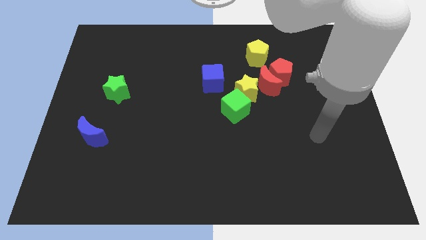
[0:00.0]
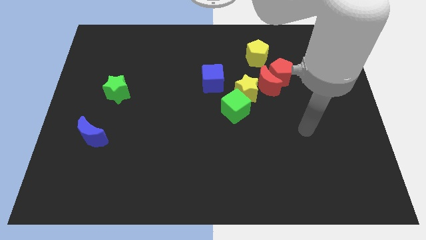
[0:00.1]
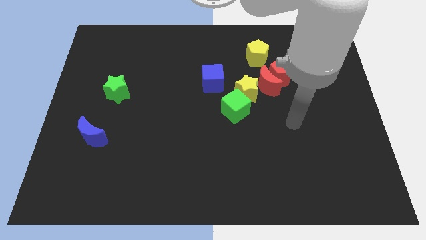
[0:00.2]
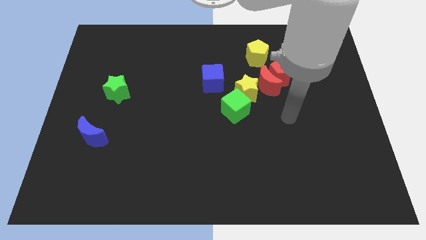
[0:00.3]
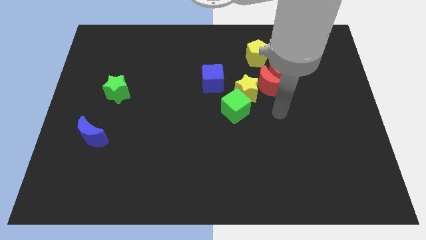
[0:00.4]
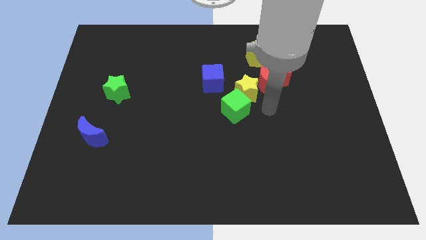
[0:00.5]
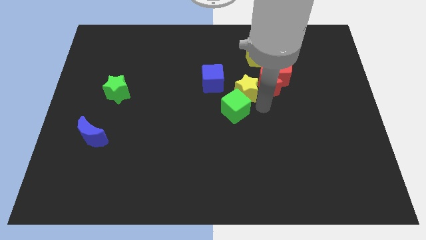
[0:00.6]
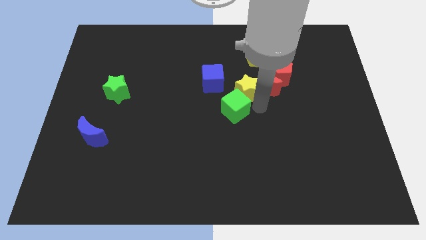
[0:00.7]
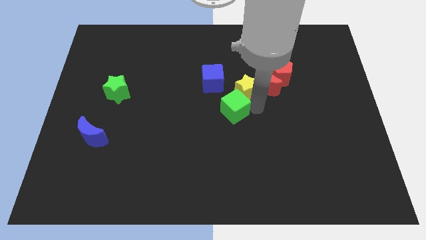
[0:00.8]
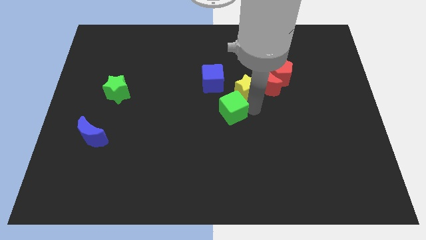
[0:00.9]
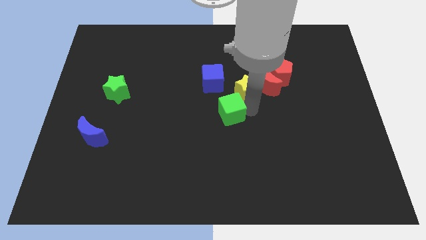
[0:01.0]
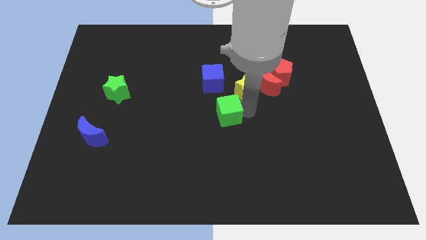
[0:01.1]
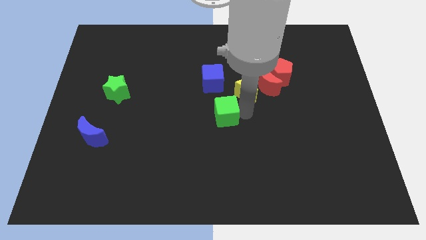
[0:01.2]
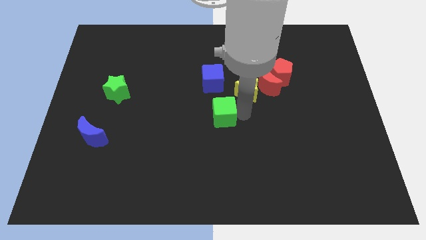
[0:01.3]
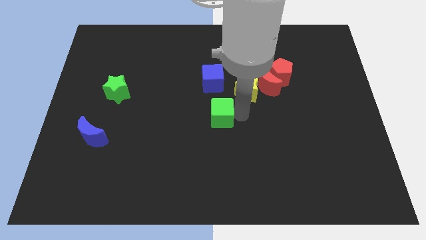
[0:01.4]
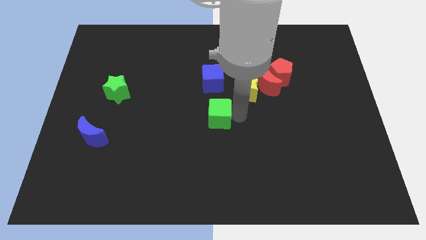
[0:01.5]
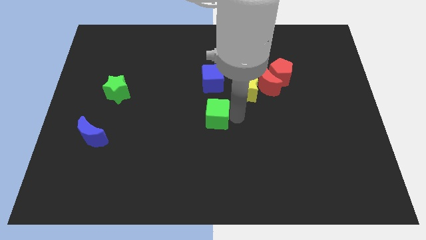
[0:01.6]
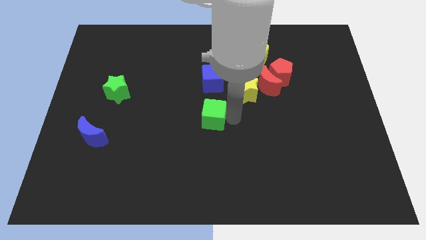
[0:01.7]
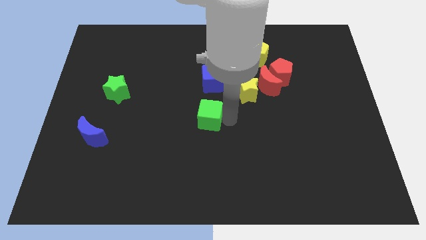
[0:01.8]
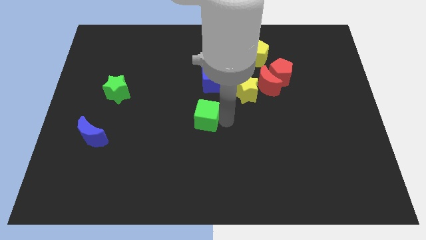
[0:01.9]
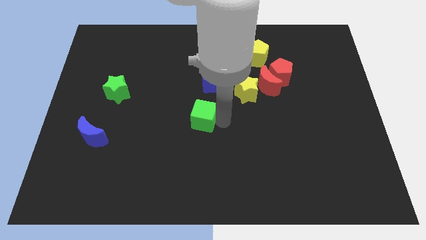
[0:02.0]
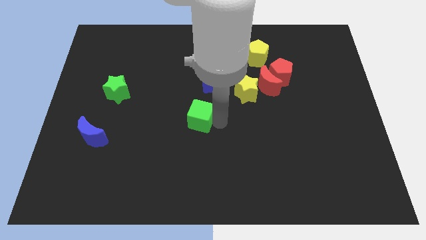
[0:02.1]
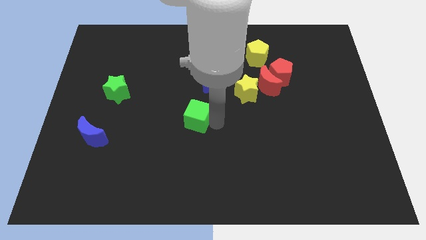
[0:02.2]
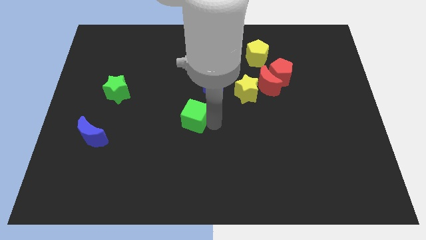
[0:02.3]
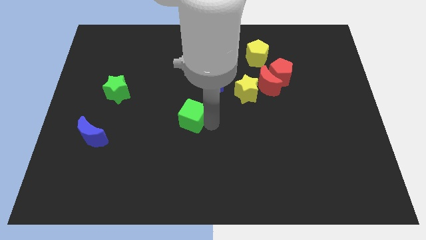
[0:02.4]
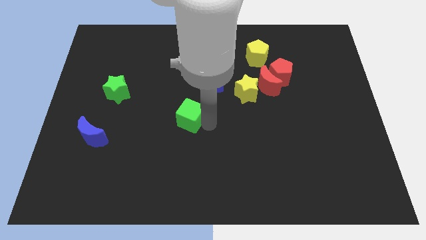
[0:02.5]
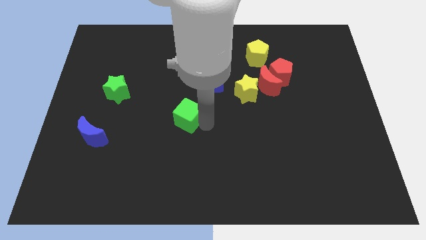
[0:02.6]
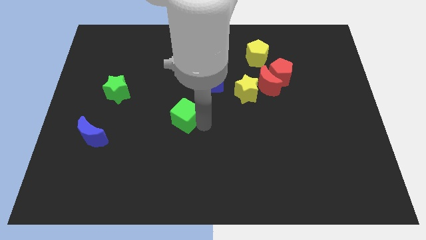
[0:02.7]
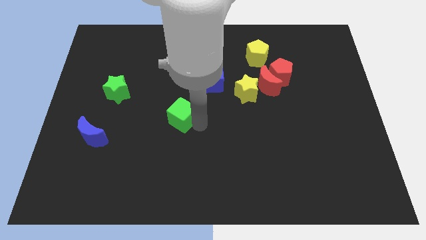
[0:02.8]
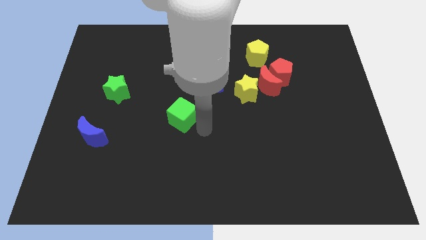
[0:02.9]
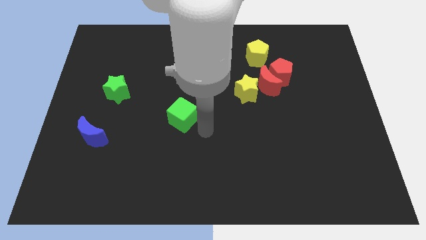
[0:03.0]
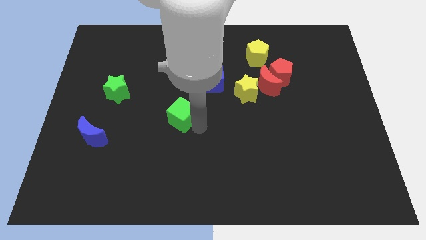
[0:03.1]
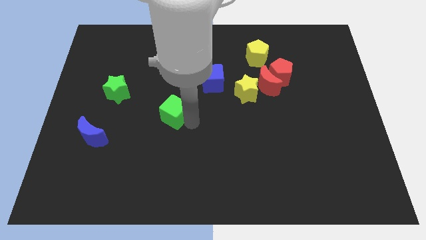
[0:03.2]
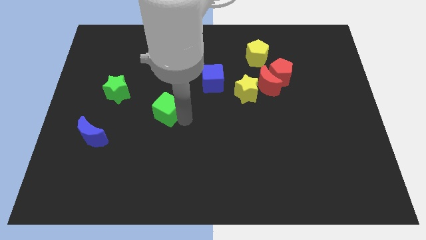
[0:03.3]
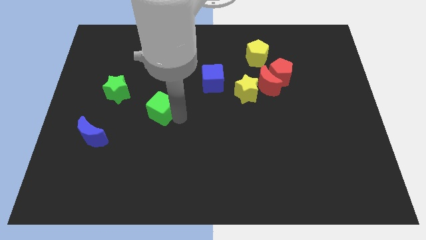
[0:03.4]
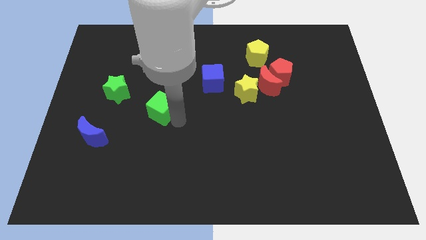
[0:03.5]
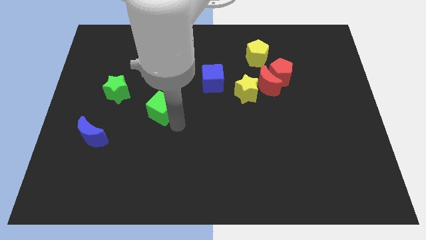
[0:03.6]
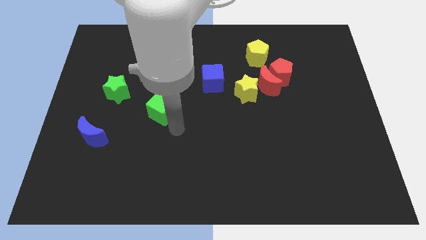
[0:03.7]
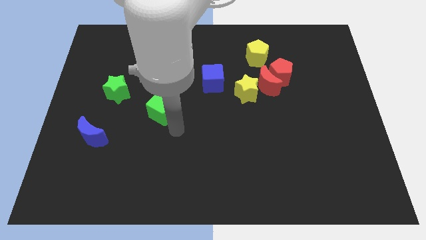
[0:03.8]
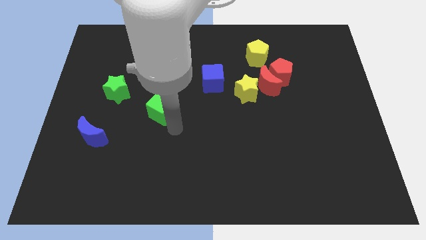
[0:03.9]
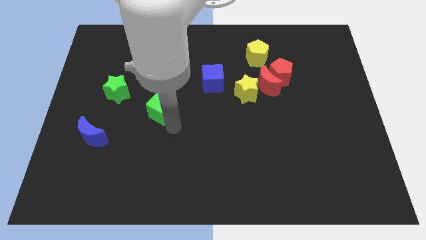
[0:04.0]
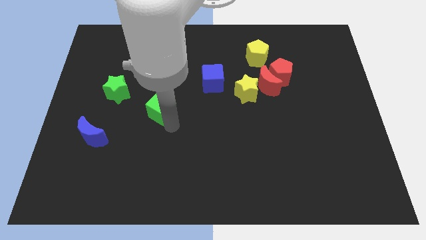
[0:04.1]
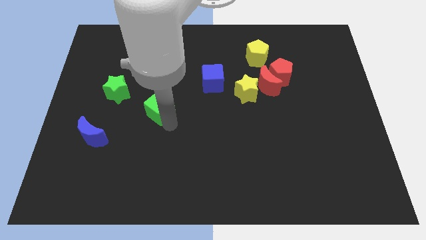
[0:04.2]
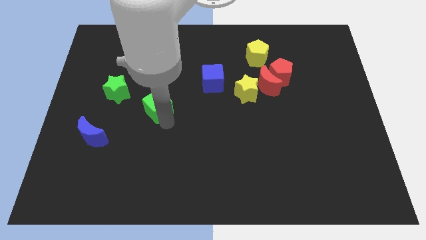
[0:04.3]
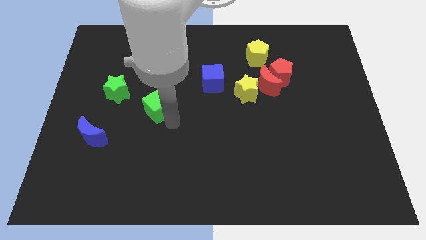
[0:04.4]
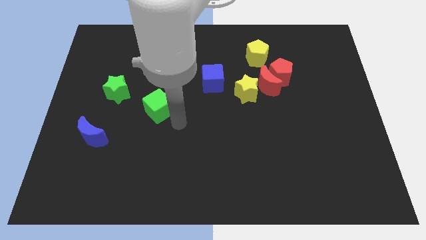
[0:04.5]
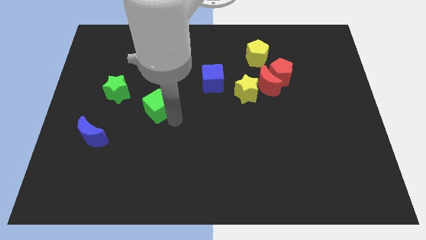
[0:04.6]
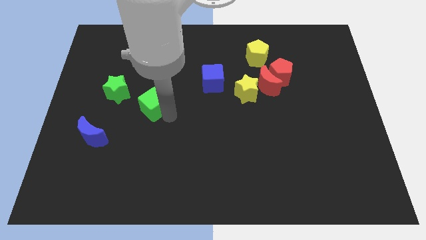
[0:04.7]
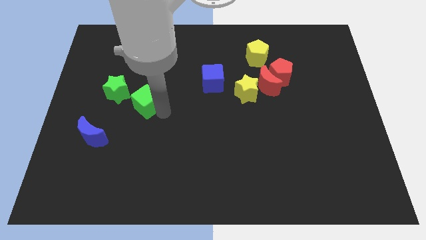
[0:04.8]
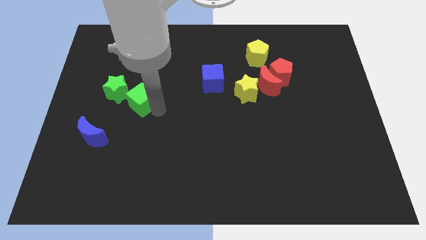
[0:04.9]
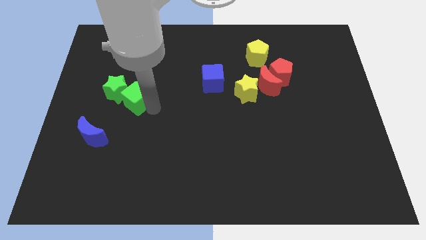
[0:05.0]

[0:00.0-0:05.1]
push the green cube close to the green star

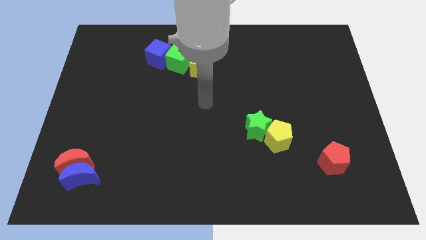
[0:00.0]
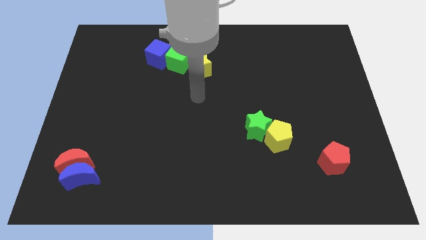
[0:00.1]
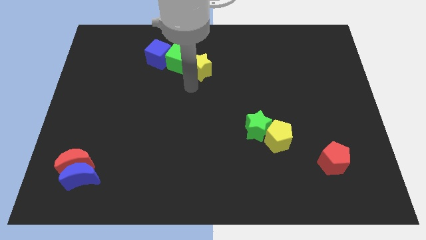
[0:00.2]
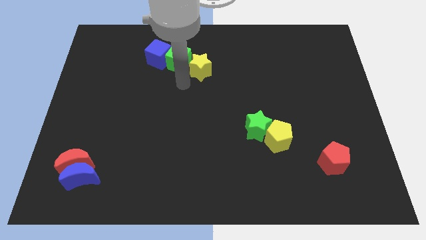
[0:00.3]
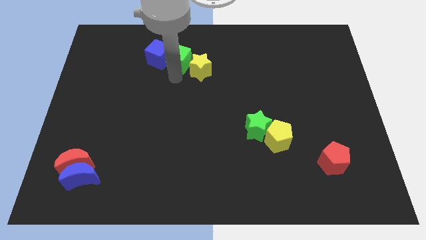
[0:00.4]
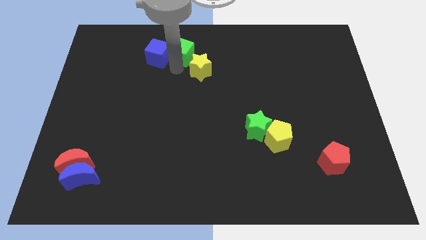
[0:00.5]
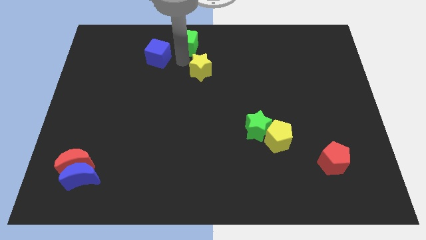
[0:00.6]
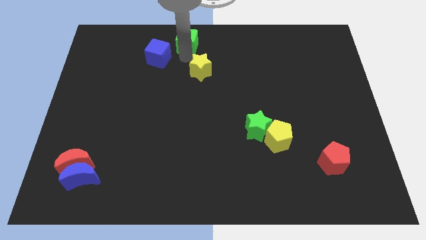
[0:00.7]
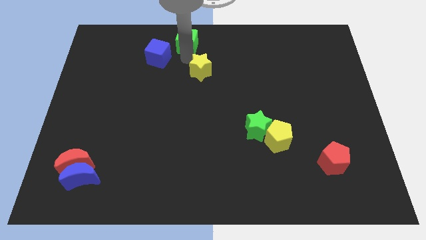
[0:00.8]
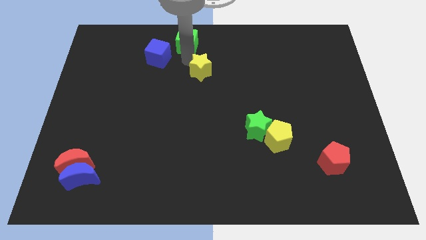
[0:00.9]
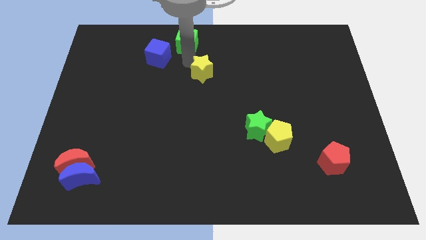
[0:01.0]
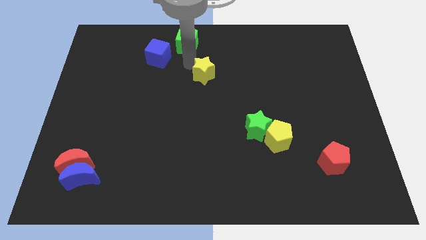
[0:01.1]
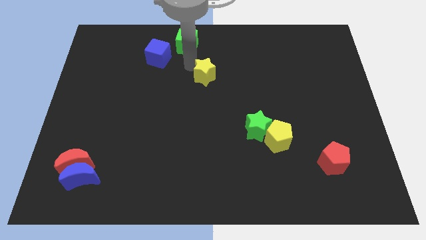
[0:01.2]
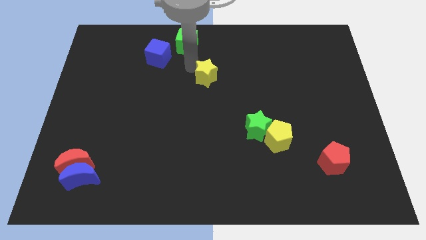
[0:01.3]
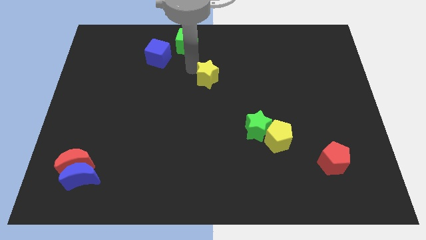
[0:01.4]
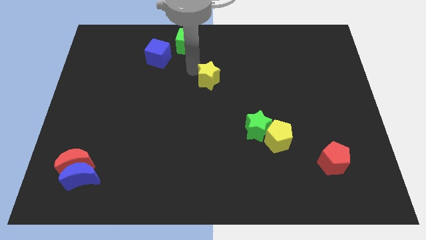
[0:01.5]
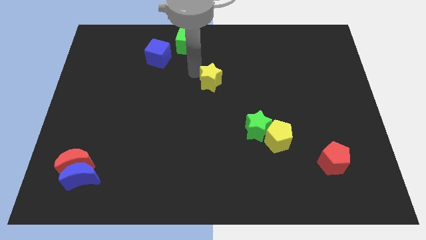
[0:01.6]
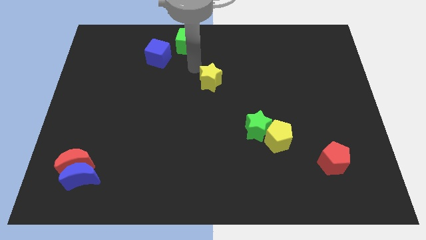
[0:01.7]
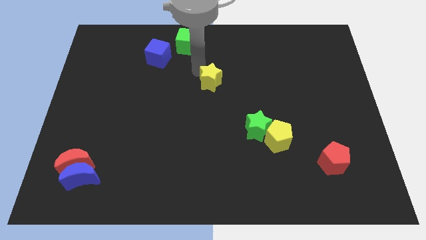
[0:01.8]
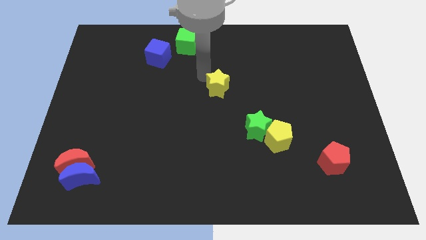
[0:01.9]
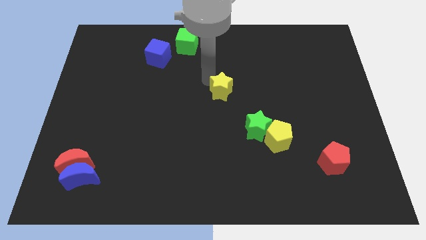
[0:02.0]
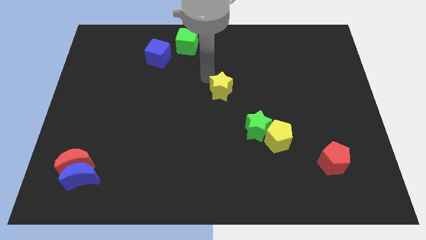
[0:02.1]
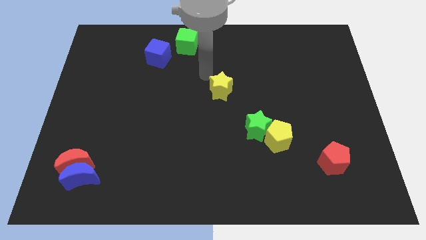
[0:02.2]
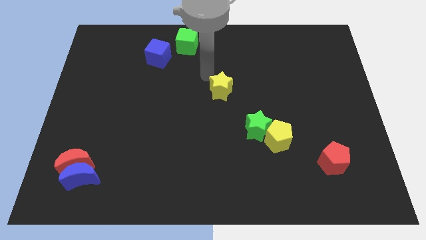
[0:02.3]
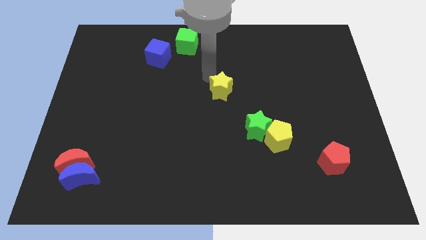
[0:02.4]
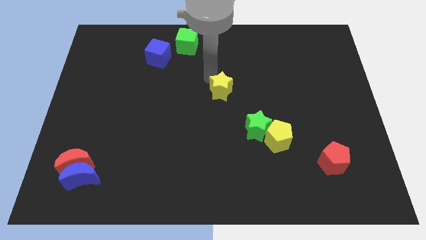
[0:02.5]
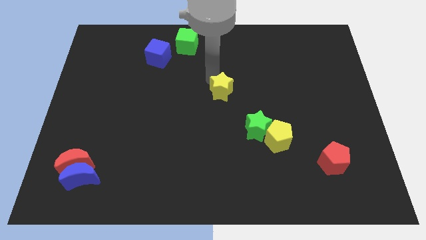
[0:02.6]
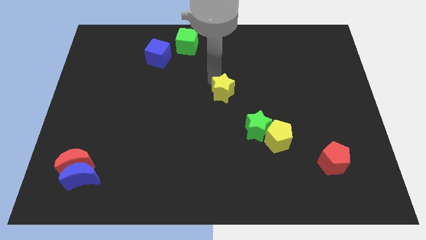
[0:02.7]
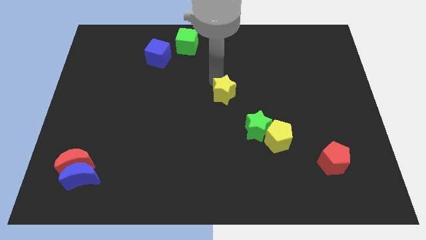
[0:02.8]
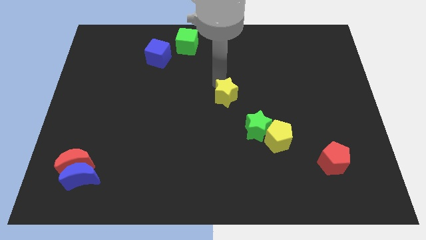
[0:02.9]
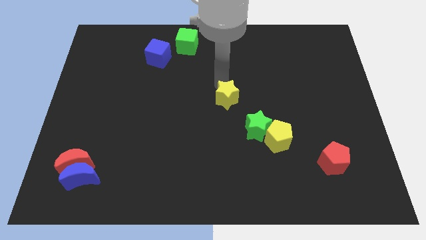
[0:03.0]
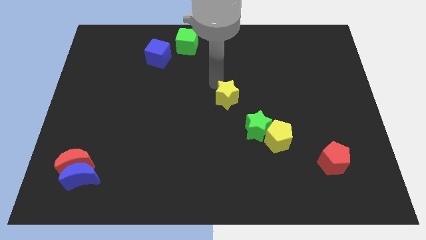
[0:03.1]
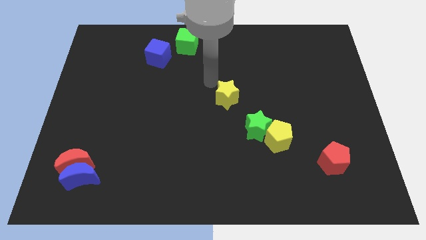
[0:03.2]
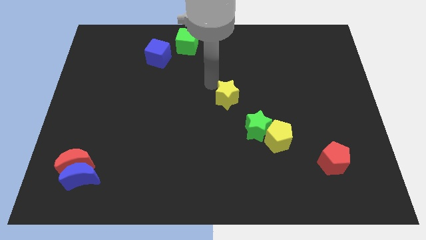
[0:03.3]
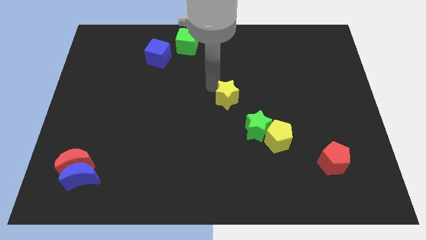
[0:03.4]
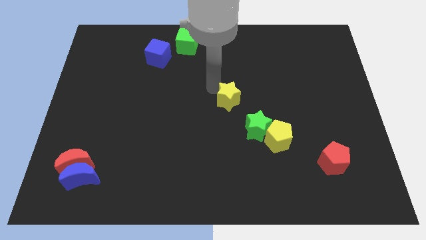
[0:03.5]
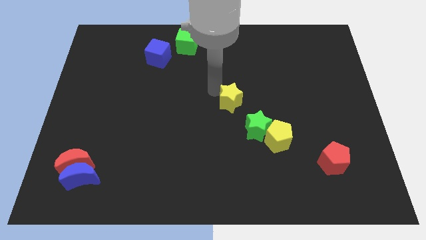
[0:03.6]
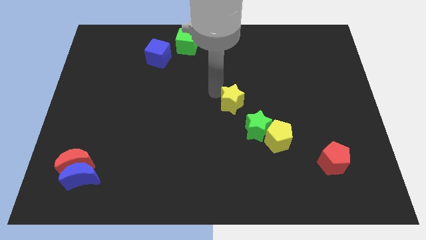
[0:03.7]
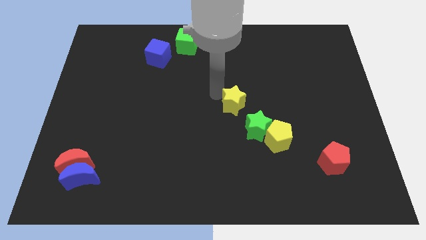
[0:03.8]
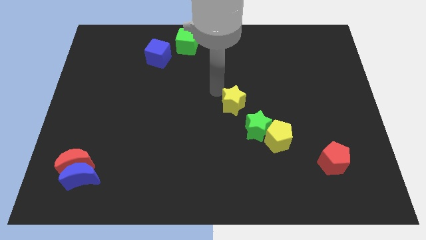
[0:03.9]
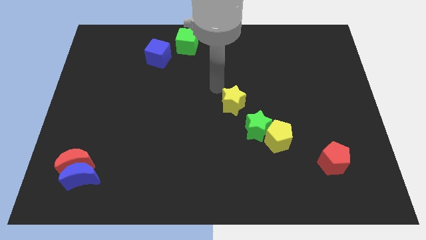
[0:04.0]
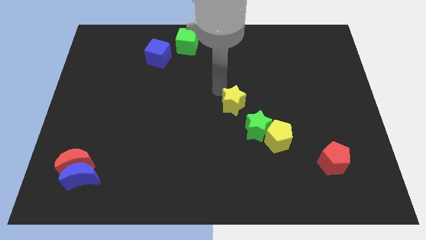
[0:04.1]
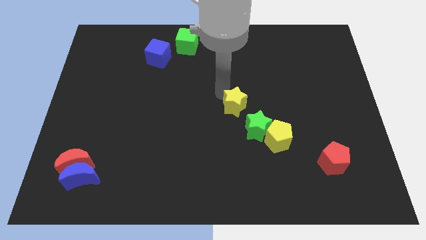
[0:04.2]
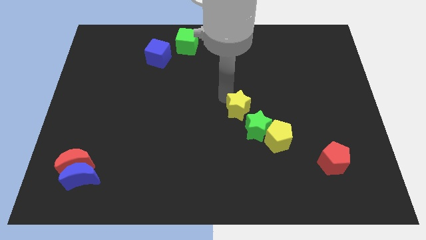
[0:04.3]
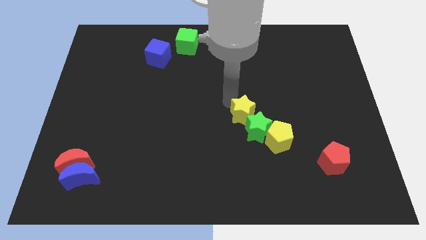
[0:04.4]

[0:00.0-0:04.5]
push the yellow star towards the green star
